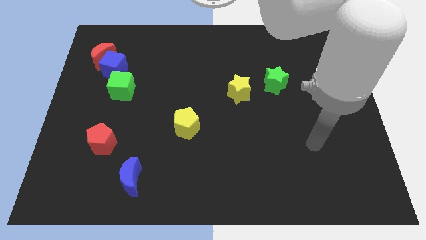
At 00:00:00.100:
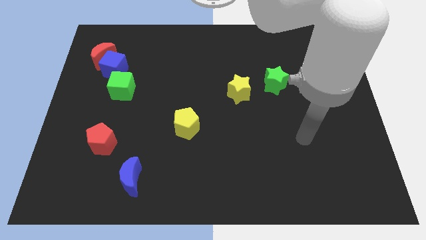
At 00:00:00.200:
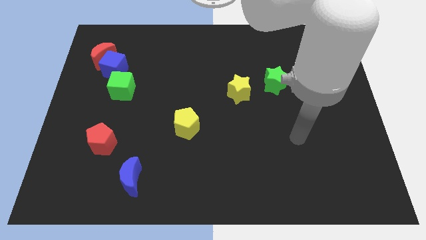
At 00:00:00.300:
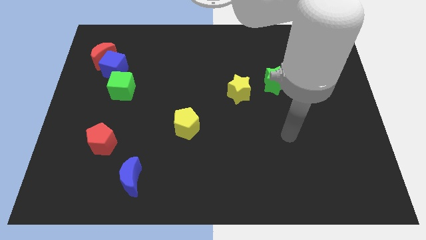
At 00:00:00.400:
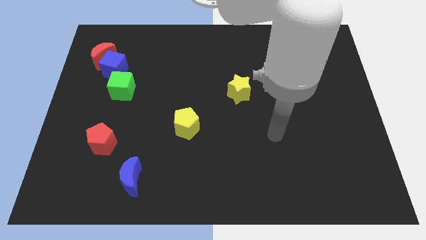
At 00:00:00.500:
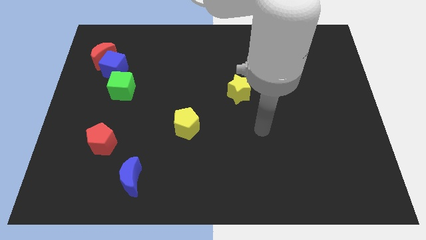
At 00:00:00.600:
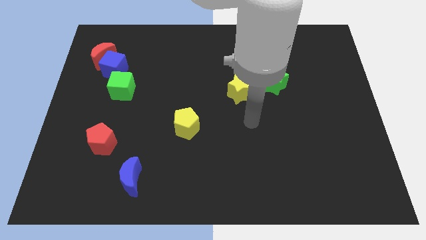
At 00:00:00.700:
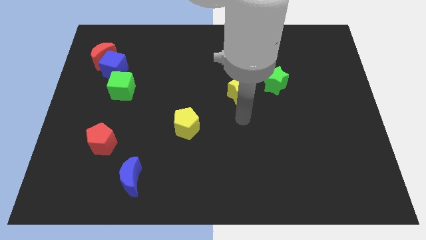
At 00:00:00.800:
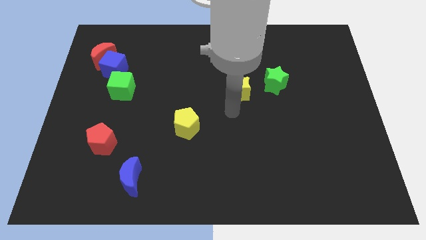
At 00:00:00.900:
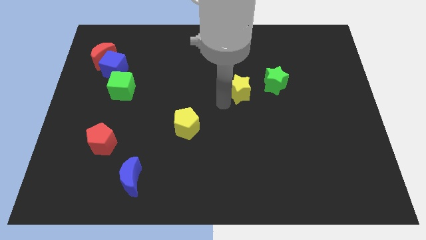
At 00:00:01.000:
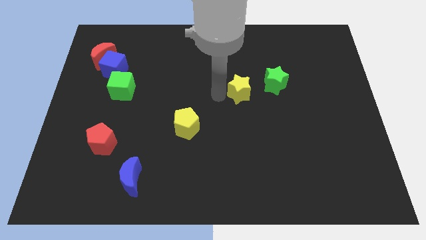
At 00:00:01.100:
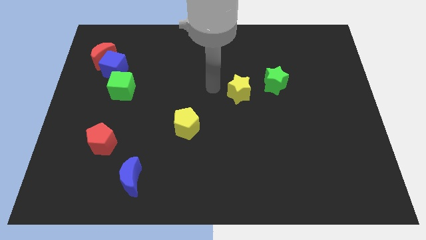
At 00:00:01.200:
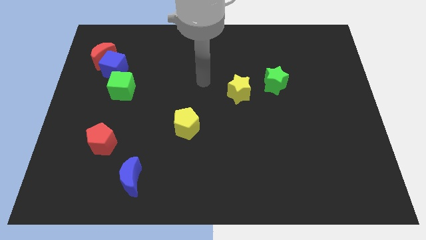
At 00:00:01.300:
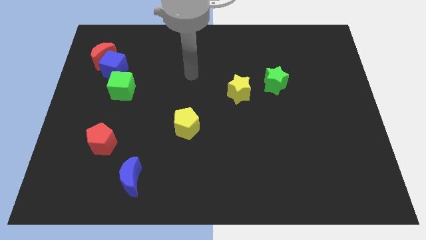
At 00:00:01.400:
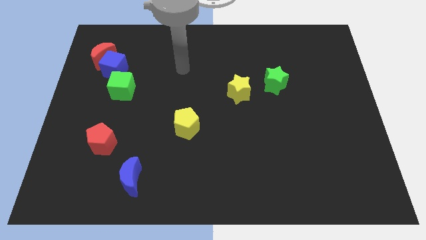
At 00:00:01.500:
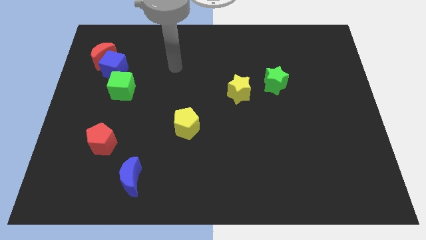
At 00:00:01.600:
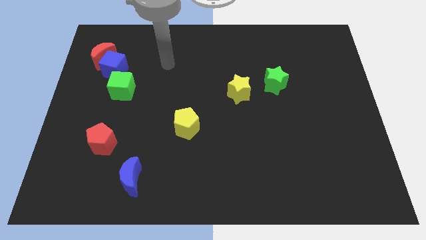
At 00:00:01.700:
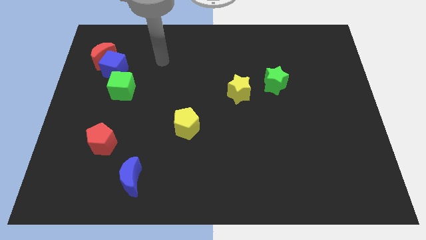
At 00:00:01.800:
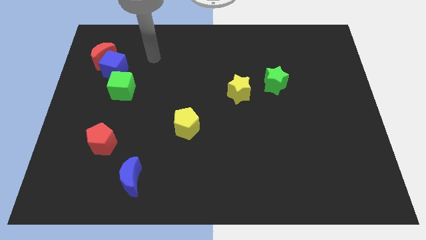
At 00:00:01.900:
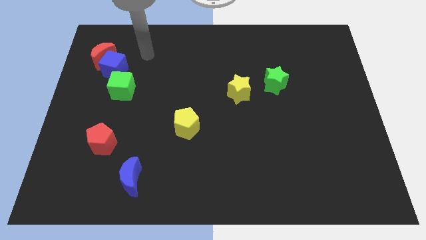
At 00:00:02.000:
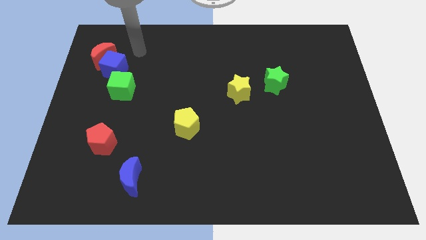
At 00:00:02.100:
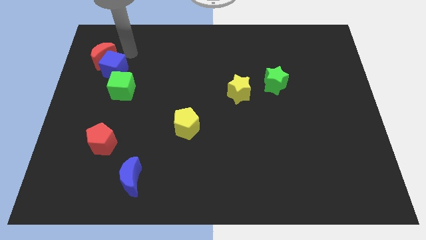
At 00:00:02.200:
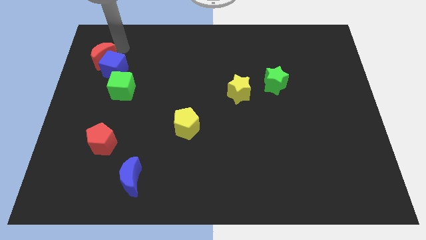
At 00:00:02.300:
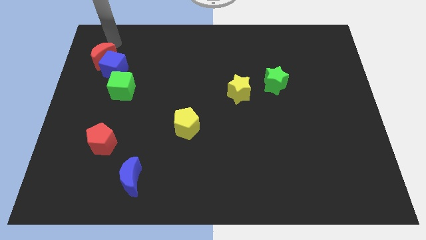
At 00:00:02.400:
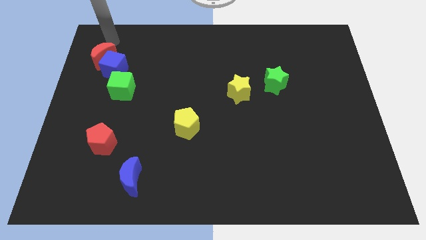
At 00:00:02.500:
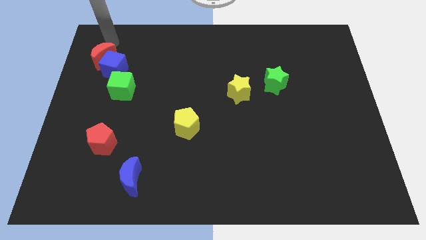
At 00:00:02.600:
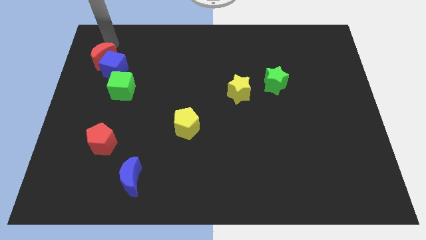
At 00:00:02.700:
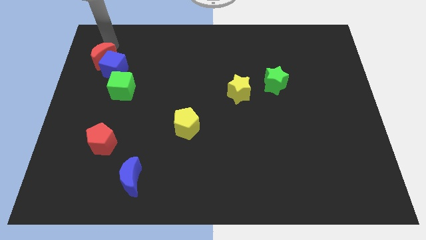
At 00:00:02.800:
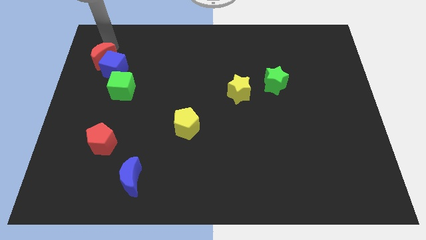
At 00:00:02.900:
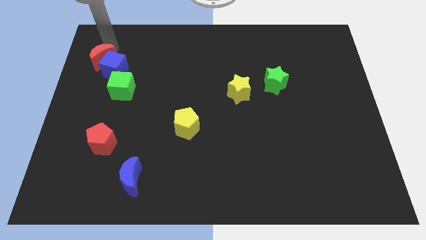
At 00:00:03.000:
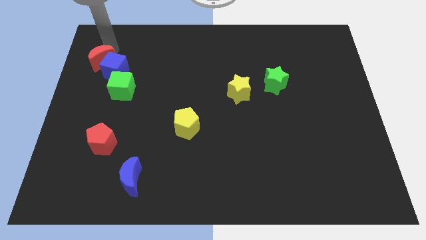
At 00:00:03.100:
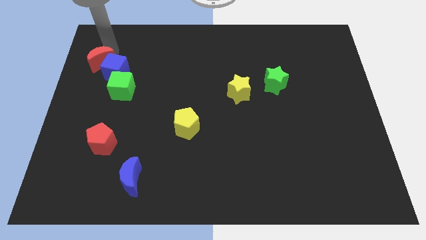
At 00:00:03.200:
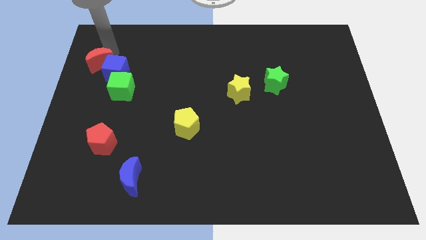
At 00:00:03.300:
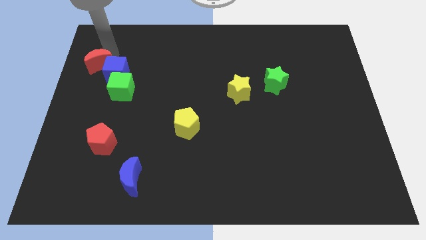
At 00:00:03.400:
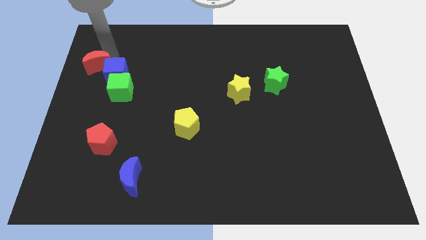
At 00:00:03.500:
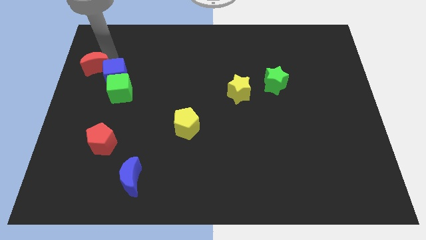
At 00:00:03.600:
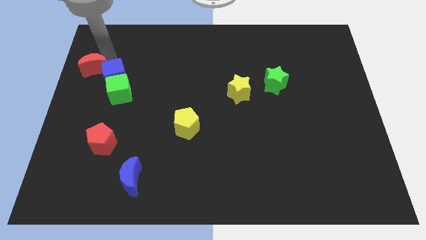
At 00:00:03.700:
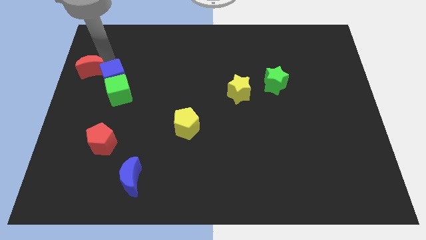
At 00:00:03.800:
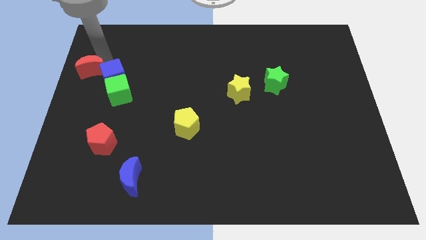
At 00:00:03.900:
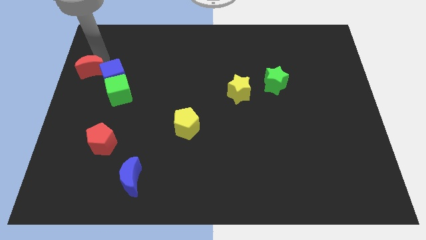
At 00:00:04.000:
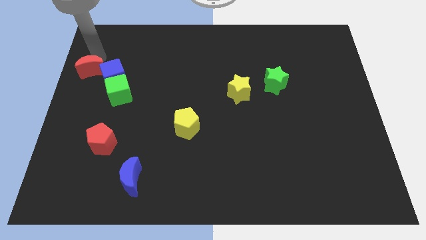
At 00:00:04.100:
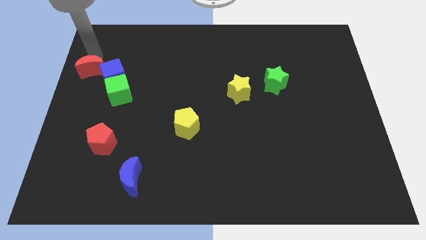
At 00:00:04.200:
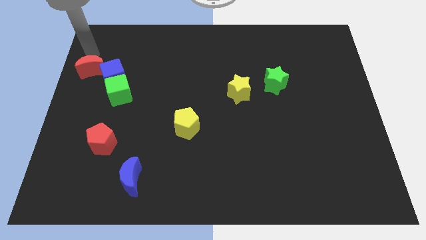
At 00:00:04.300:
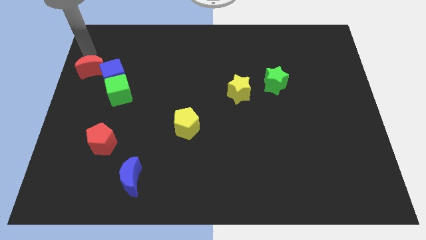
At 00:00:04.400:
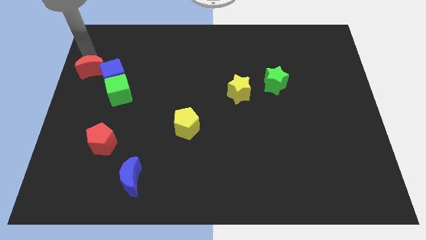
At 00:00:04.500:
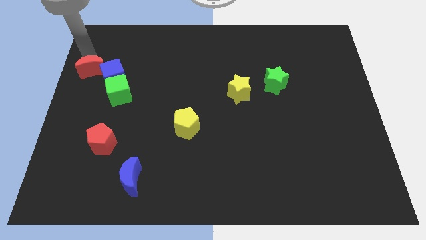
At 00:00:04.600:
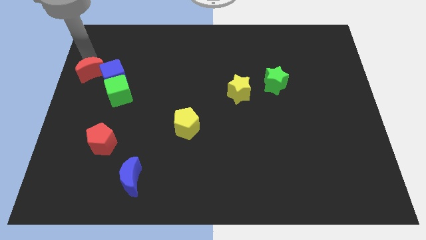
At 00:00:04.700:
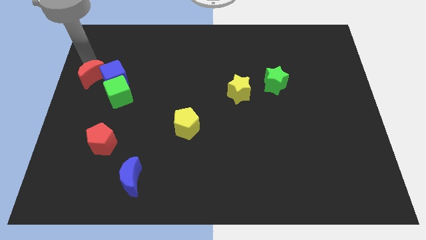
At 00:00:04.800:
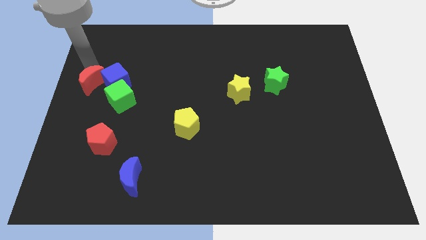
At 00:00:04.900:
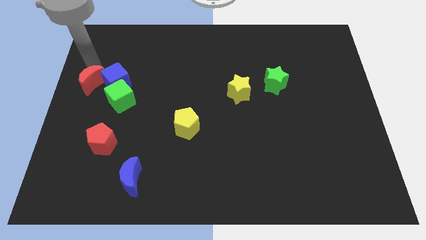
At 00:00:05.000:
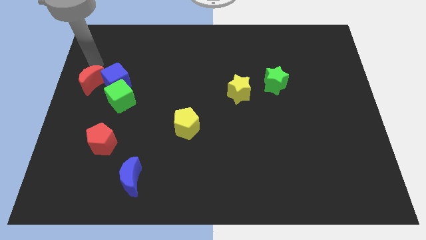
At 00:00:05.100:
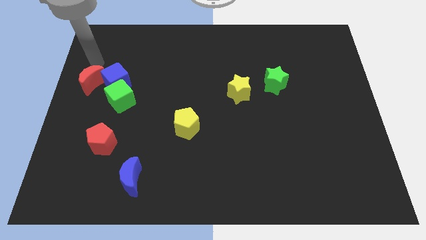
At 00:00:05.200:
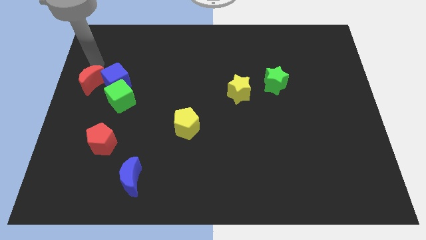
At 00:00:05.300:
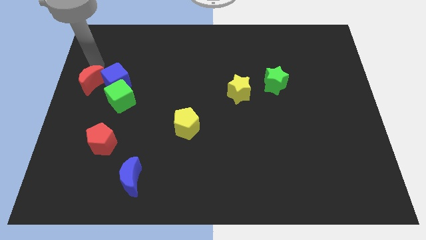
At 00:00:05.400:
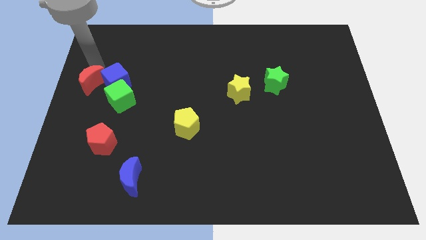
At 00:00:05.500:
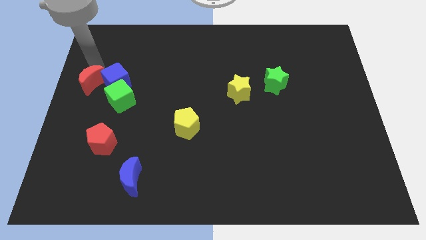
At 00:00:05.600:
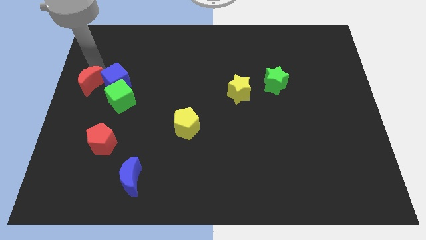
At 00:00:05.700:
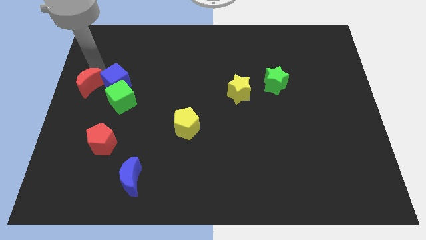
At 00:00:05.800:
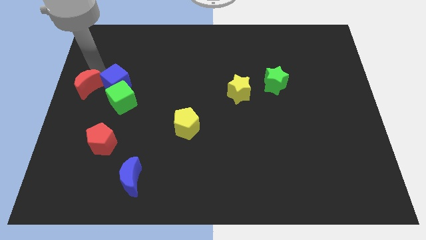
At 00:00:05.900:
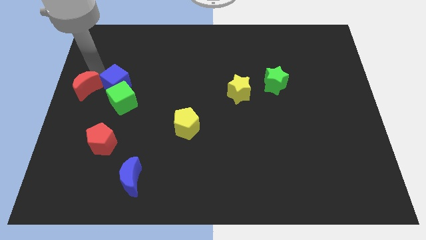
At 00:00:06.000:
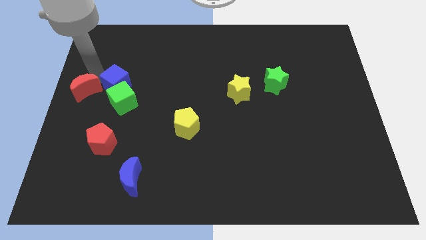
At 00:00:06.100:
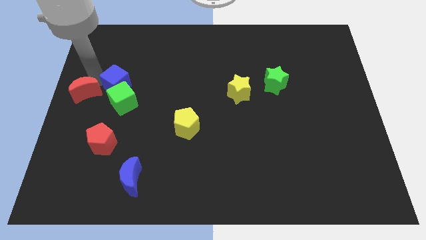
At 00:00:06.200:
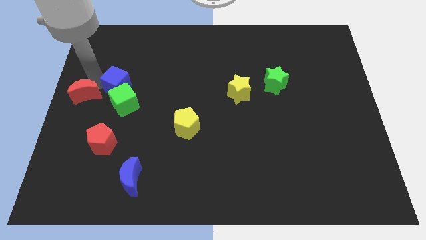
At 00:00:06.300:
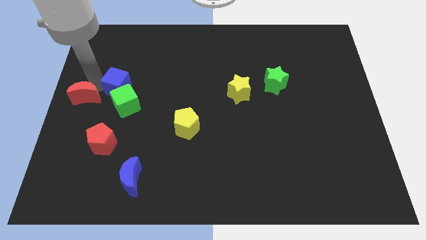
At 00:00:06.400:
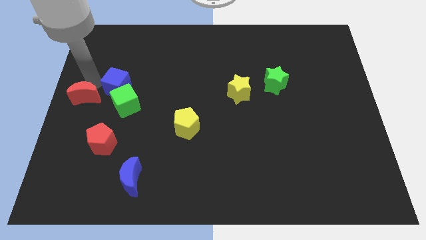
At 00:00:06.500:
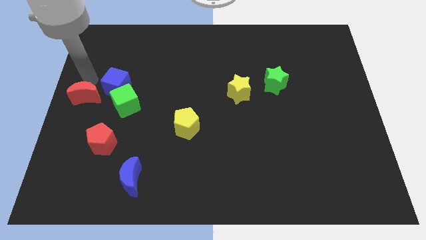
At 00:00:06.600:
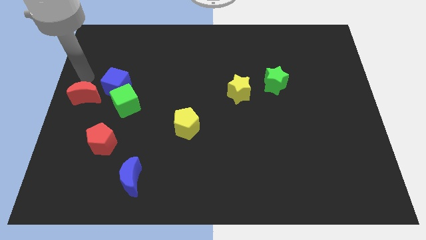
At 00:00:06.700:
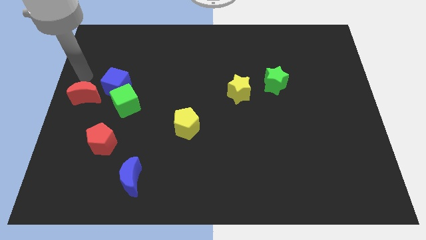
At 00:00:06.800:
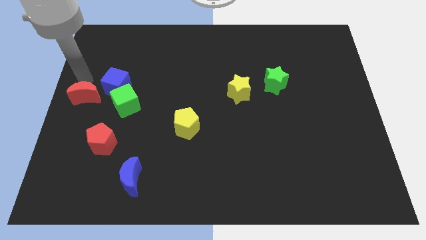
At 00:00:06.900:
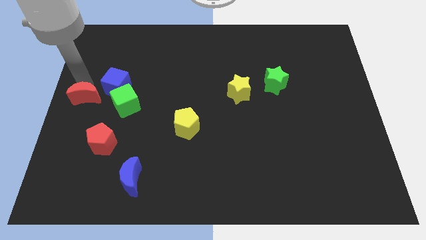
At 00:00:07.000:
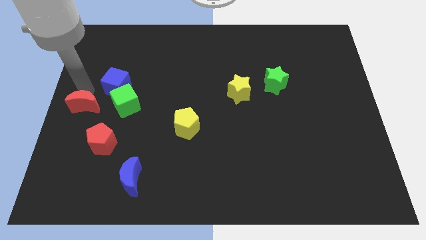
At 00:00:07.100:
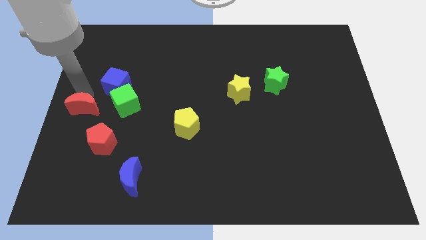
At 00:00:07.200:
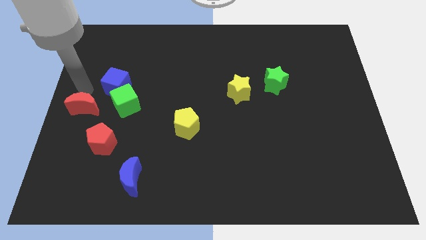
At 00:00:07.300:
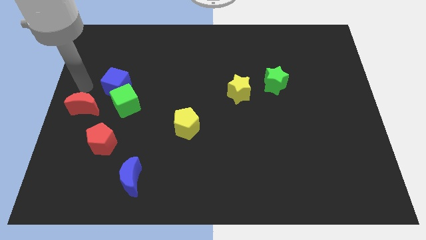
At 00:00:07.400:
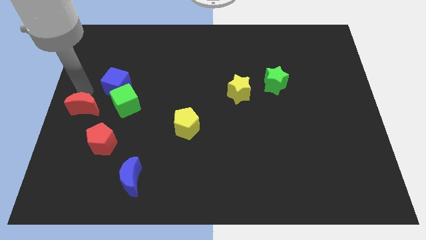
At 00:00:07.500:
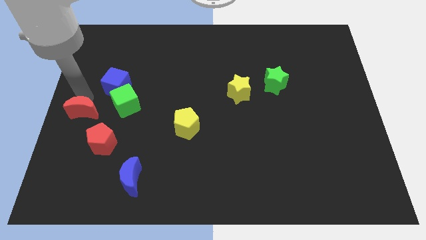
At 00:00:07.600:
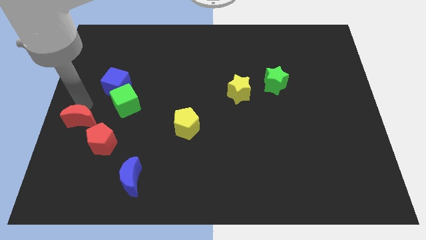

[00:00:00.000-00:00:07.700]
slide the red moon down
